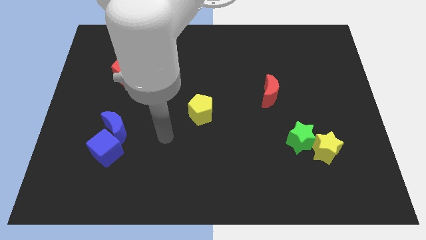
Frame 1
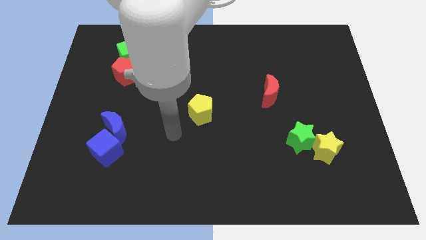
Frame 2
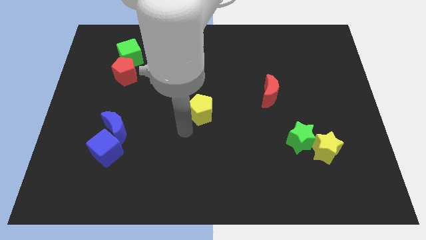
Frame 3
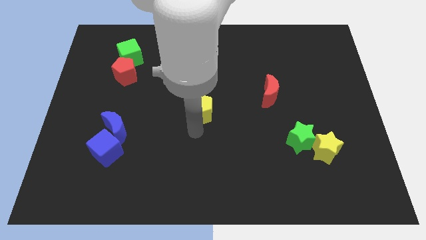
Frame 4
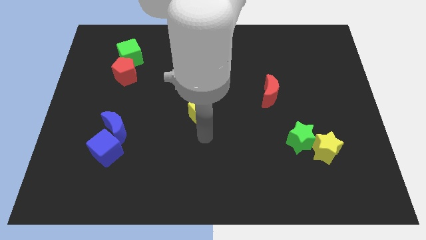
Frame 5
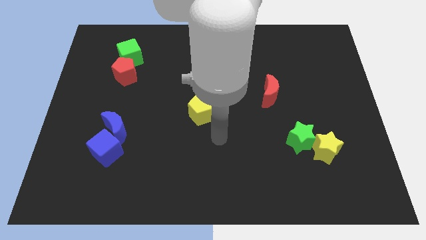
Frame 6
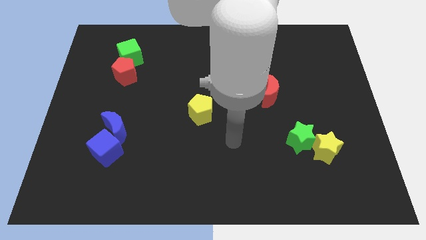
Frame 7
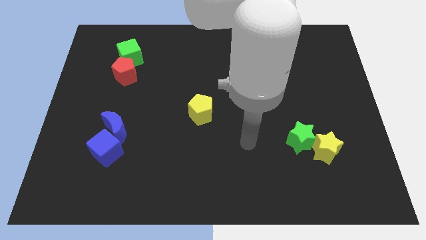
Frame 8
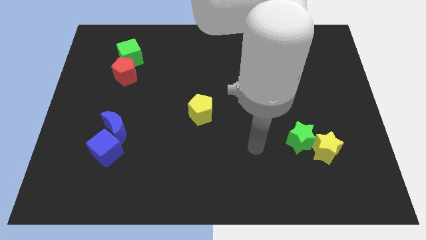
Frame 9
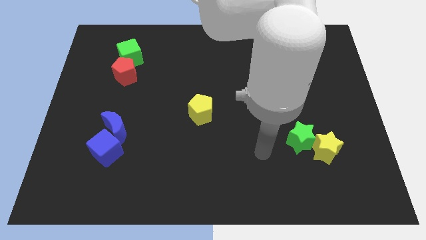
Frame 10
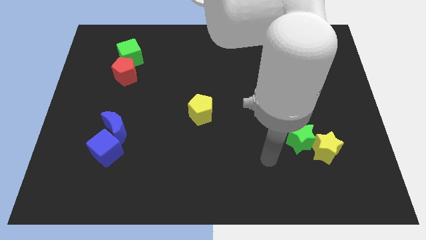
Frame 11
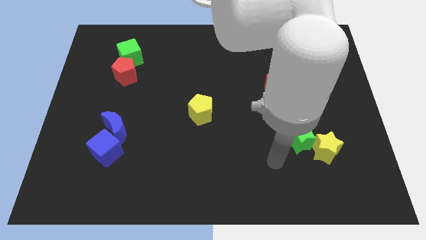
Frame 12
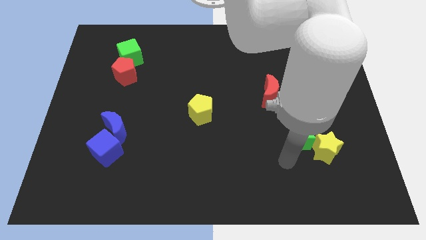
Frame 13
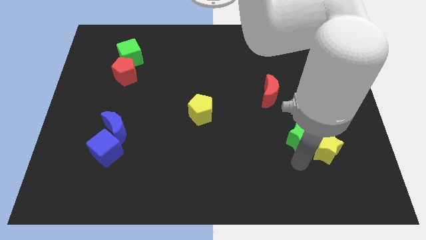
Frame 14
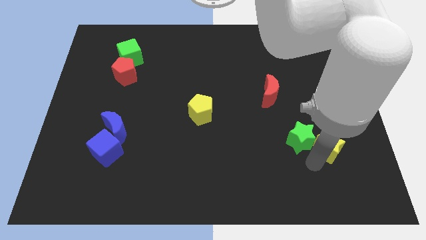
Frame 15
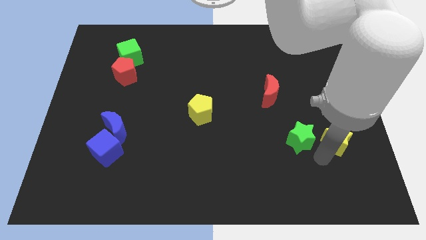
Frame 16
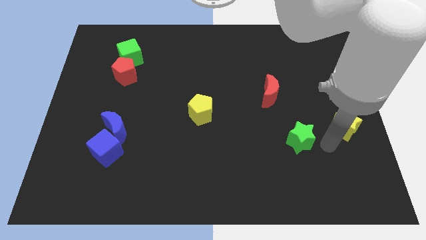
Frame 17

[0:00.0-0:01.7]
move the green star away from the yellow star

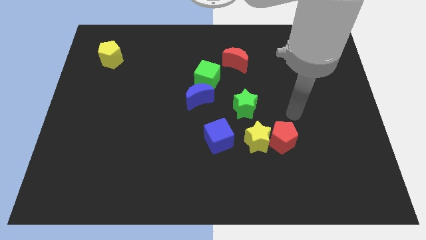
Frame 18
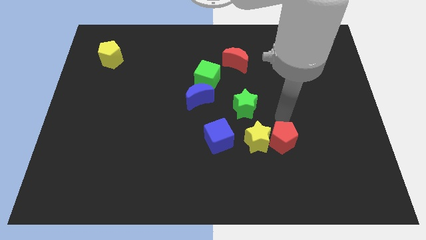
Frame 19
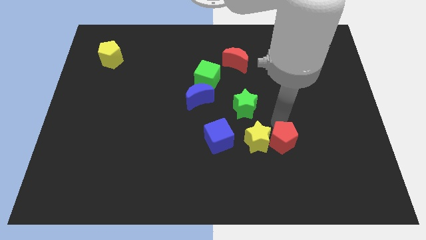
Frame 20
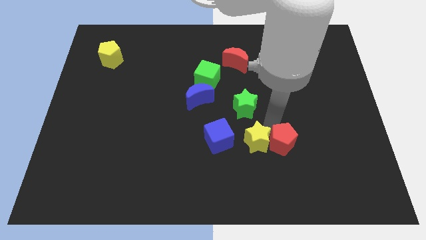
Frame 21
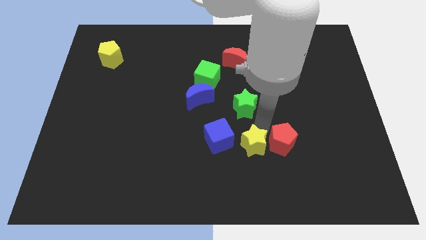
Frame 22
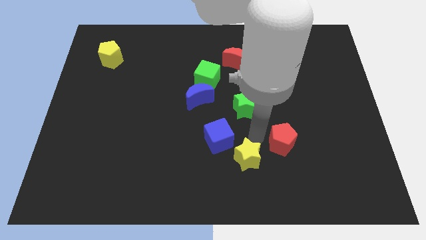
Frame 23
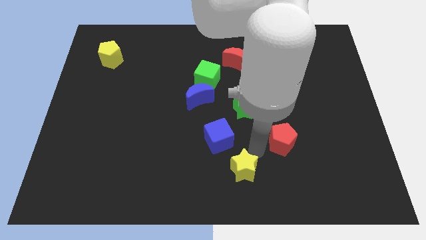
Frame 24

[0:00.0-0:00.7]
pull the red pentagon apart from the yellow star

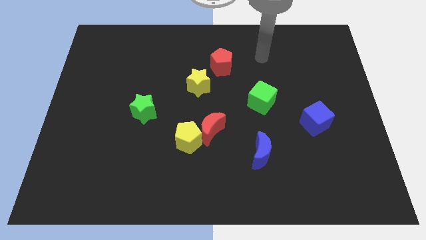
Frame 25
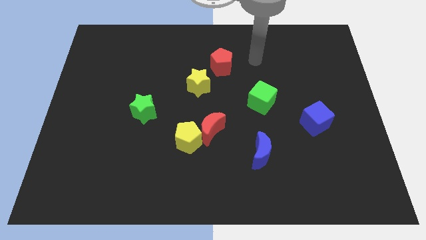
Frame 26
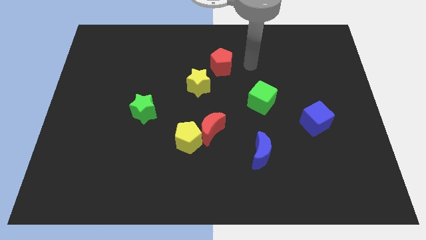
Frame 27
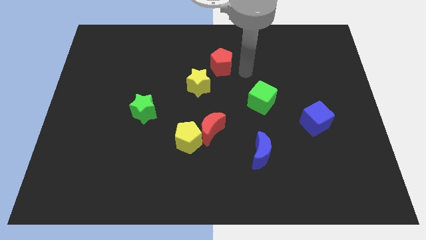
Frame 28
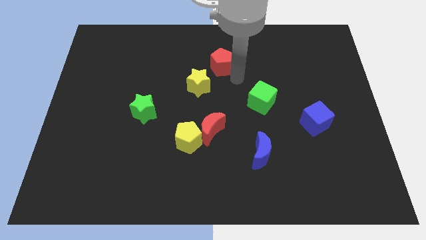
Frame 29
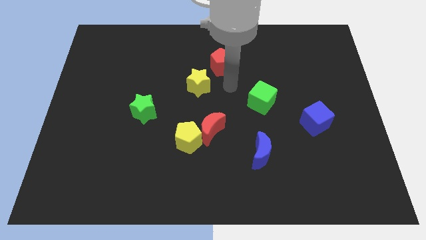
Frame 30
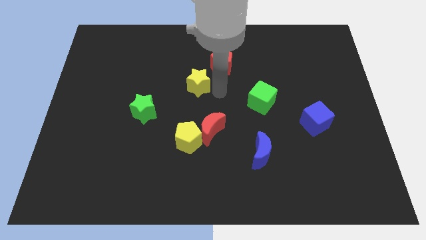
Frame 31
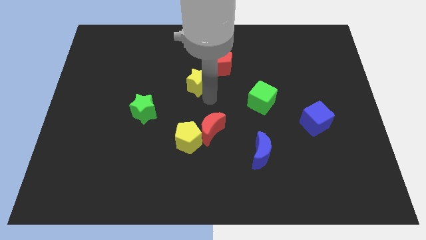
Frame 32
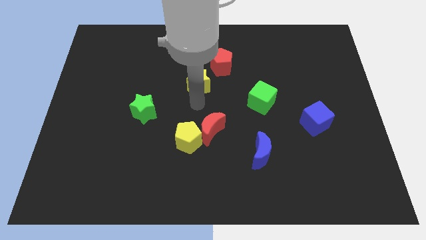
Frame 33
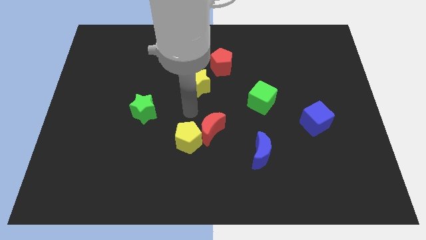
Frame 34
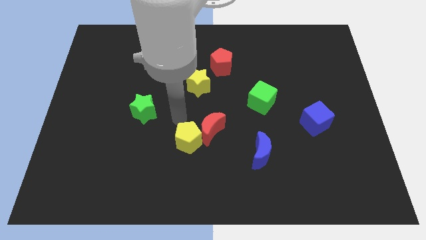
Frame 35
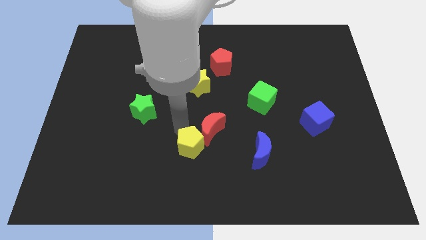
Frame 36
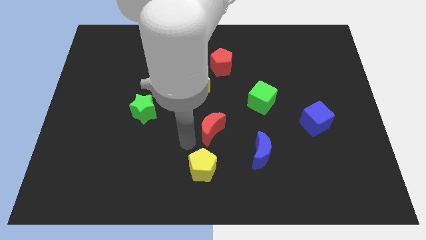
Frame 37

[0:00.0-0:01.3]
move the red moon away from the yellow pentagon

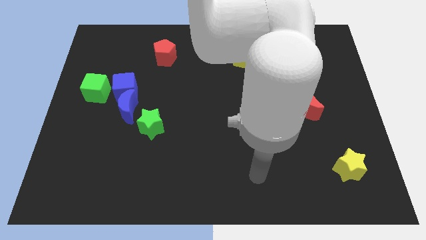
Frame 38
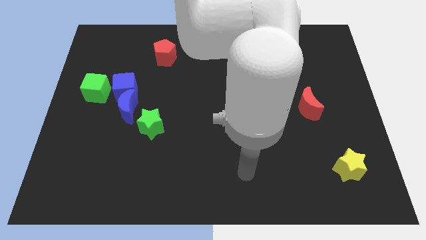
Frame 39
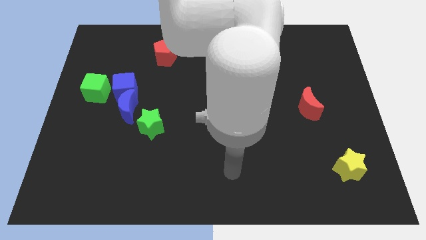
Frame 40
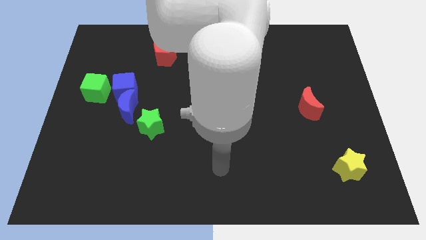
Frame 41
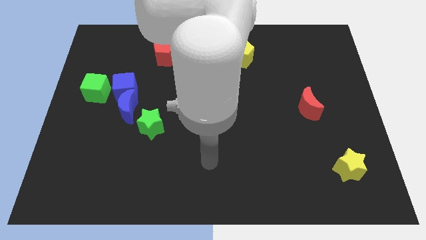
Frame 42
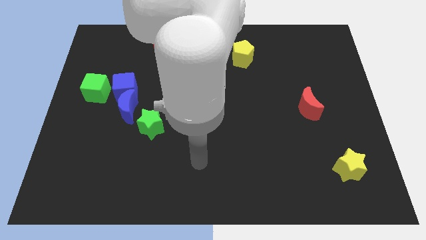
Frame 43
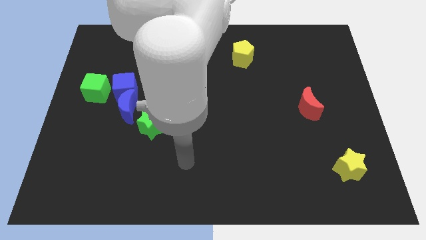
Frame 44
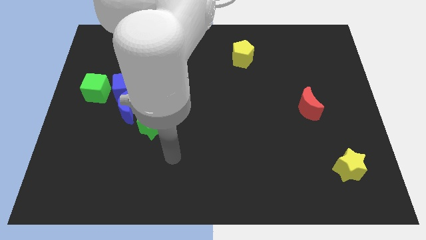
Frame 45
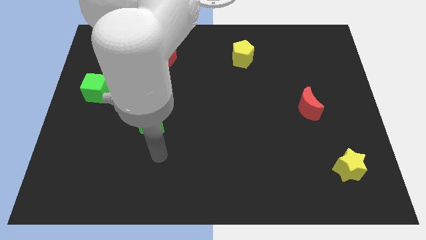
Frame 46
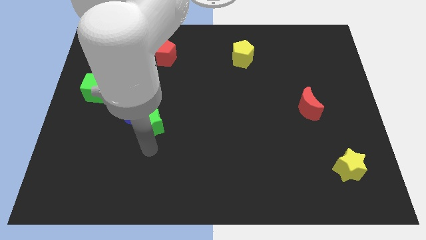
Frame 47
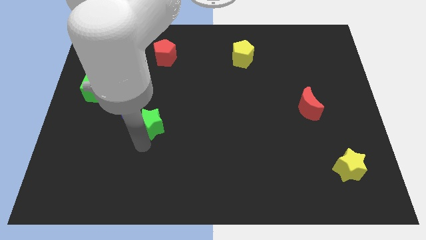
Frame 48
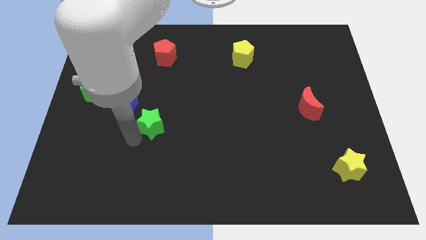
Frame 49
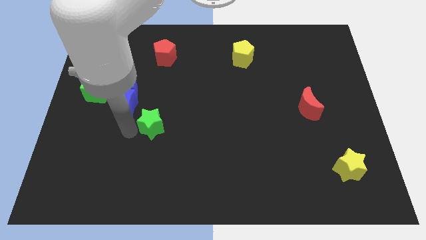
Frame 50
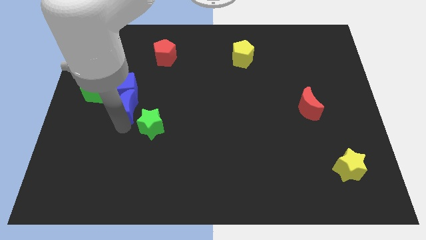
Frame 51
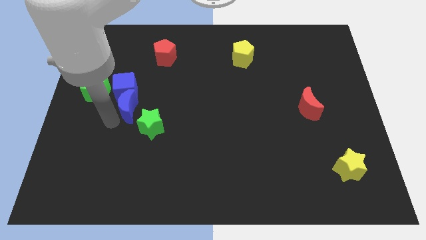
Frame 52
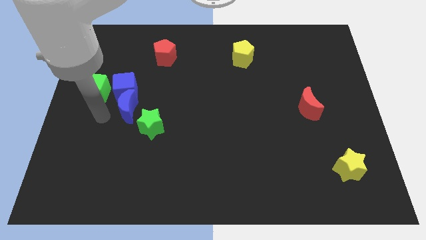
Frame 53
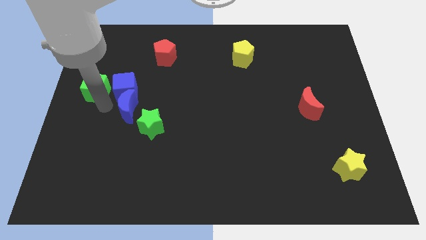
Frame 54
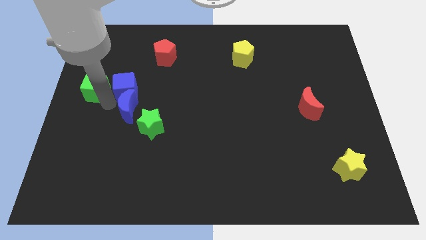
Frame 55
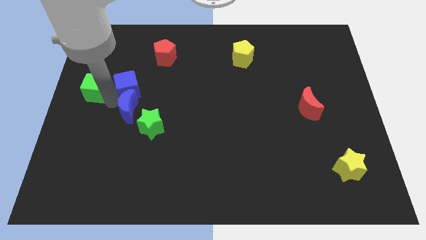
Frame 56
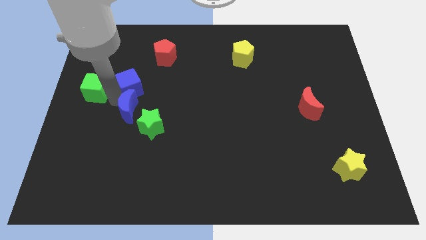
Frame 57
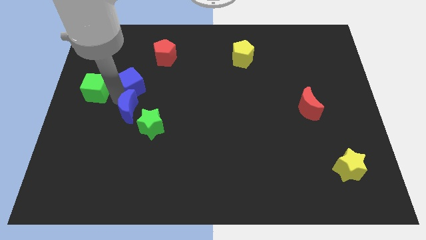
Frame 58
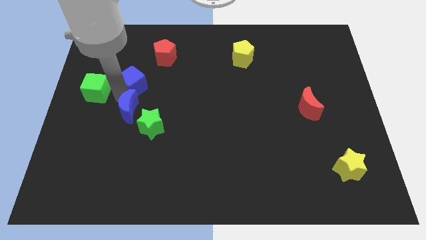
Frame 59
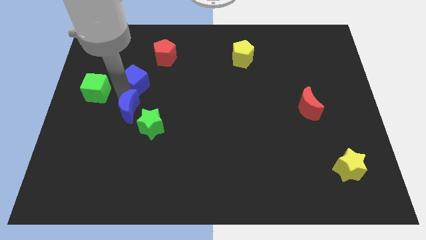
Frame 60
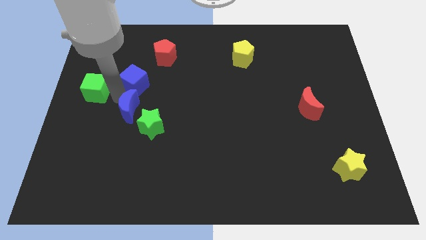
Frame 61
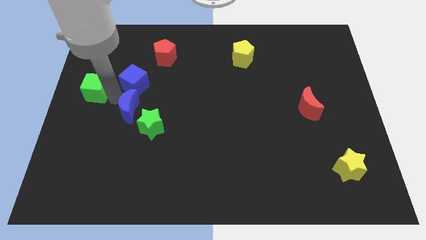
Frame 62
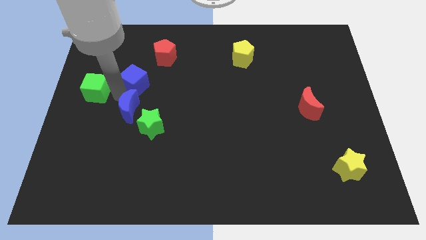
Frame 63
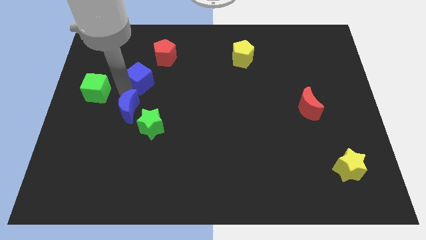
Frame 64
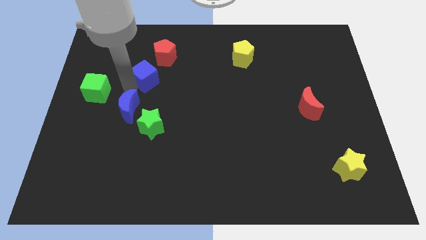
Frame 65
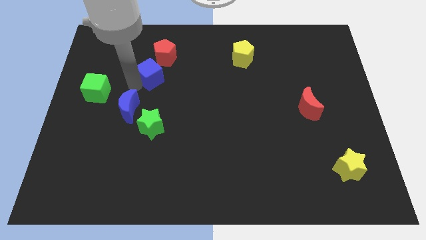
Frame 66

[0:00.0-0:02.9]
move the blue cube away from the blue moon and green cube

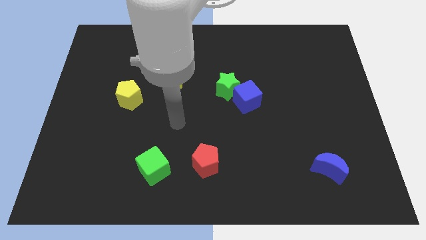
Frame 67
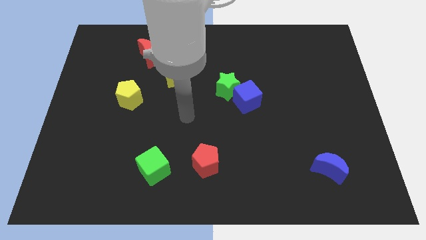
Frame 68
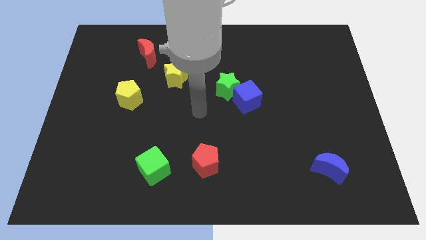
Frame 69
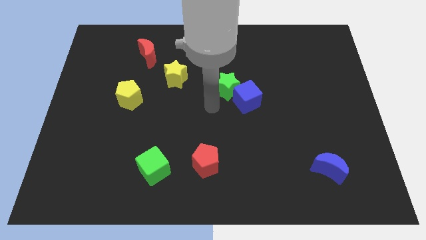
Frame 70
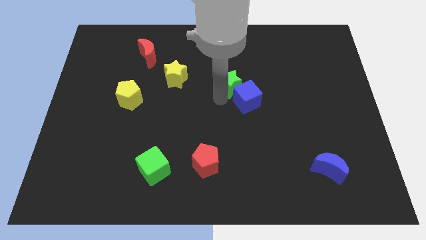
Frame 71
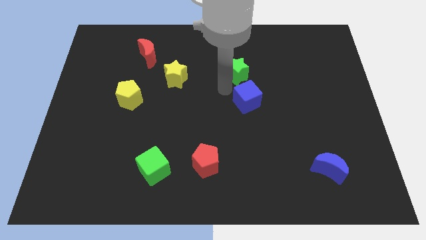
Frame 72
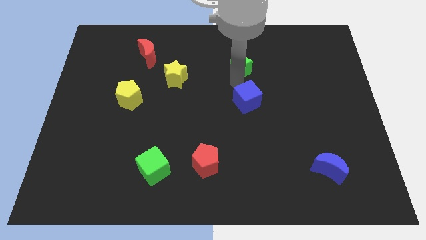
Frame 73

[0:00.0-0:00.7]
move the blue cube away from the green star

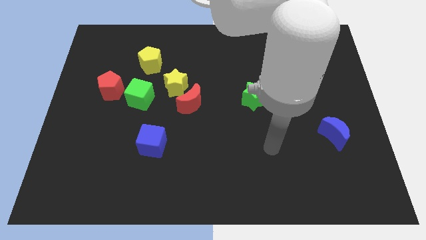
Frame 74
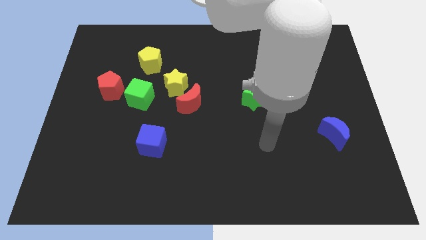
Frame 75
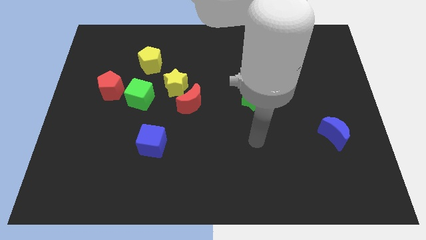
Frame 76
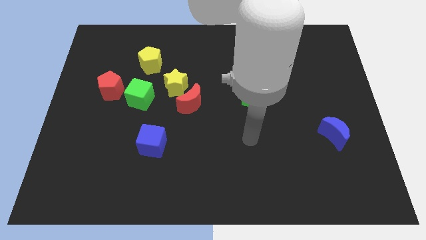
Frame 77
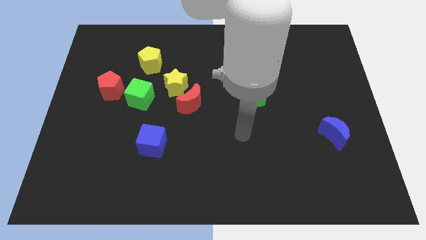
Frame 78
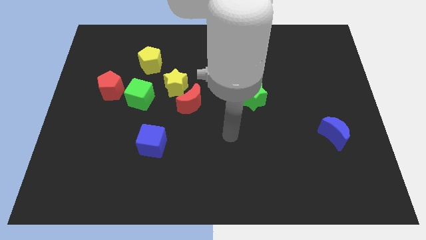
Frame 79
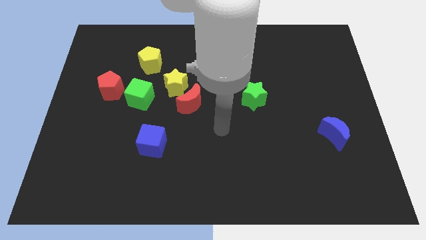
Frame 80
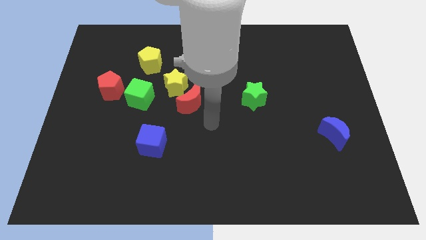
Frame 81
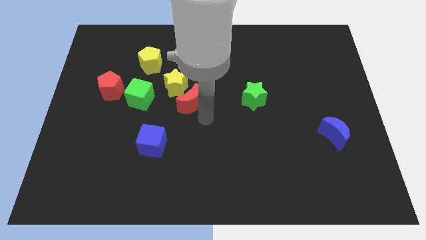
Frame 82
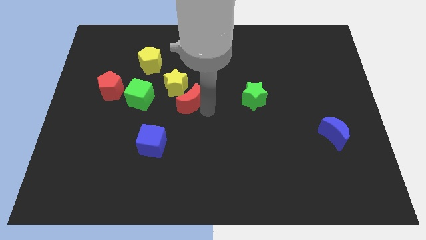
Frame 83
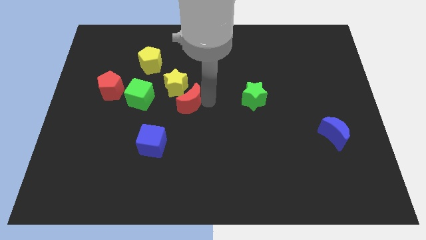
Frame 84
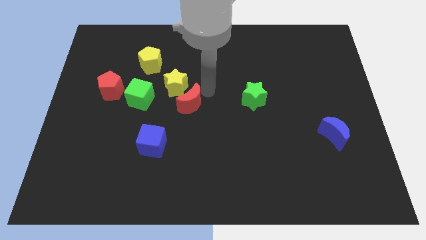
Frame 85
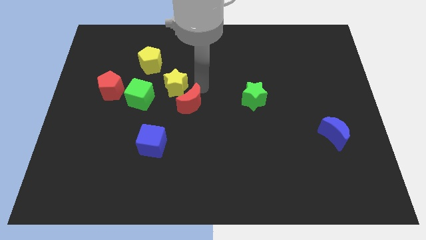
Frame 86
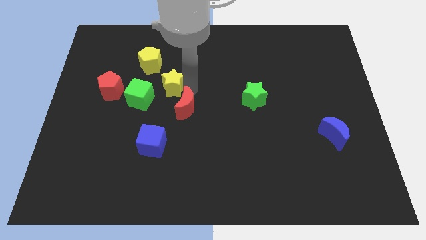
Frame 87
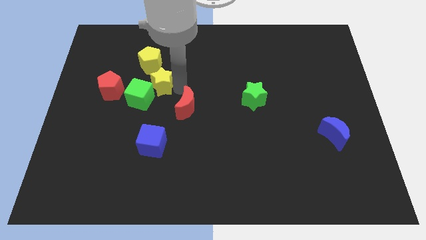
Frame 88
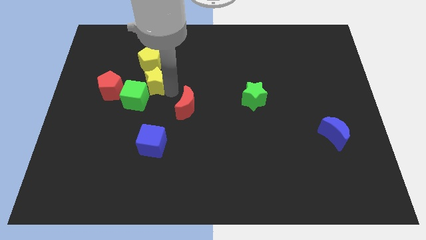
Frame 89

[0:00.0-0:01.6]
separate the red moon from the yellow star

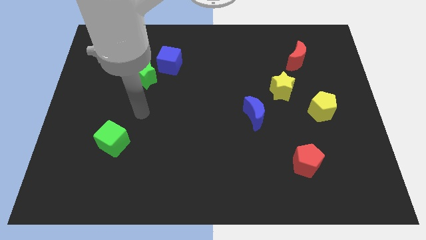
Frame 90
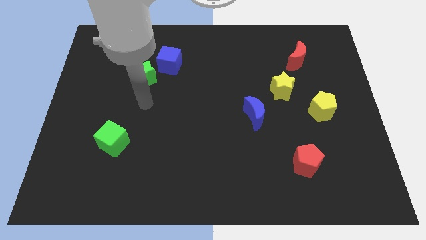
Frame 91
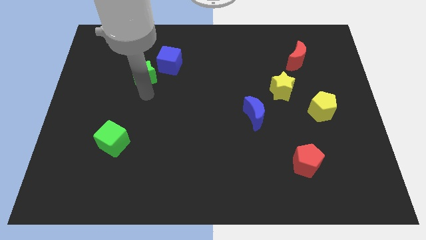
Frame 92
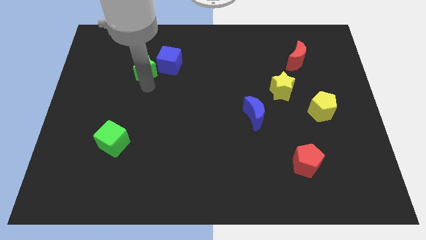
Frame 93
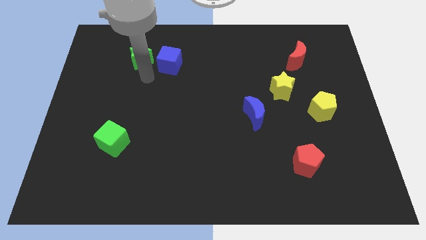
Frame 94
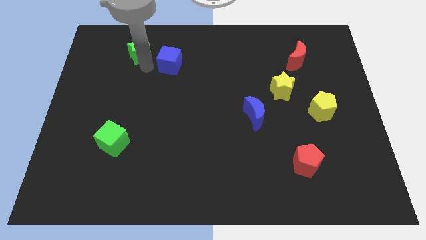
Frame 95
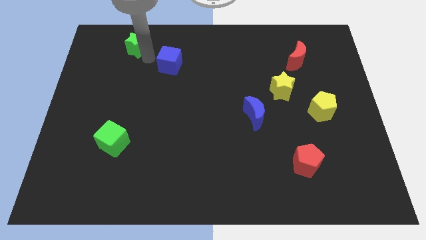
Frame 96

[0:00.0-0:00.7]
separate the blue cube from the green star
